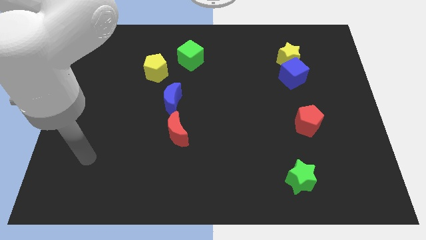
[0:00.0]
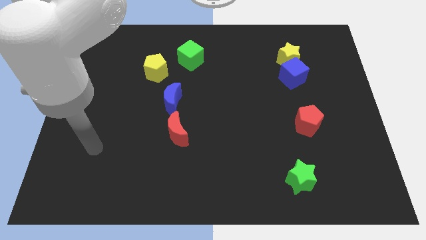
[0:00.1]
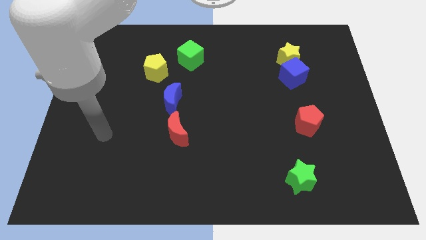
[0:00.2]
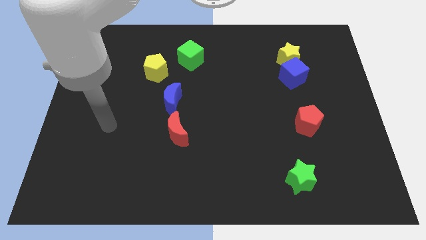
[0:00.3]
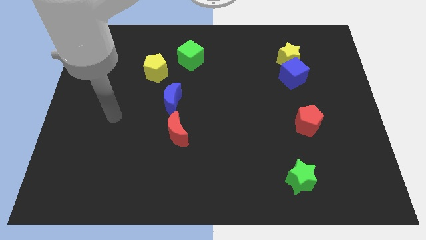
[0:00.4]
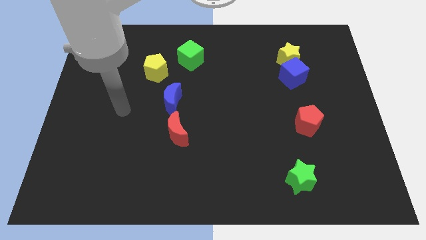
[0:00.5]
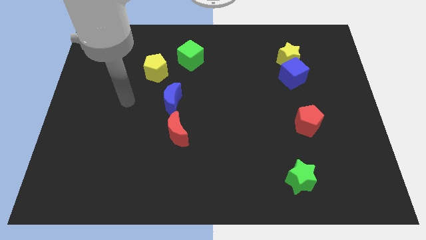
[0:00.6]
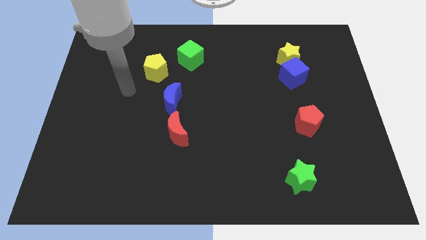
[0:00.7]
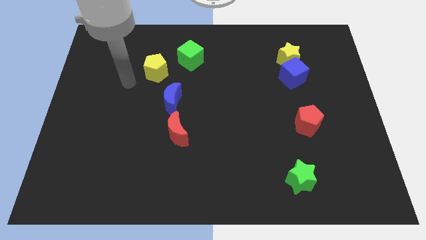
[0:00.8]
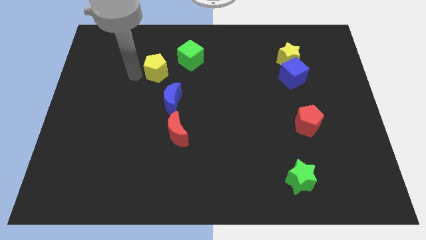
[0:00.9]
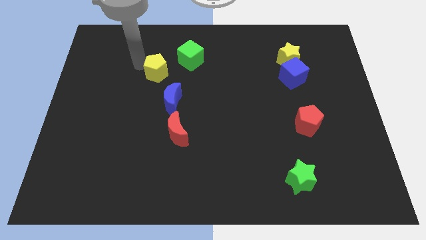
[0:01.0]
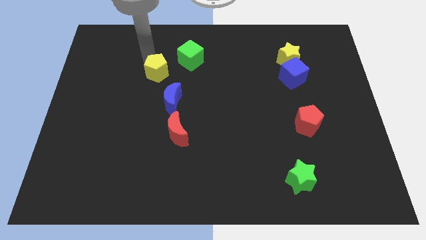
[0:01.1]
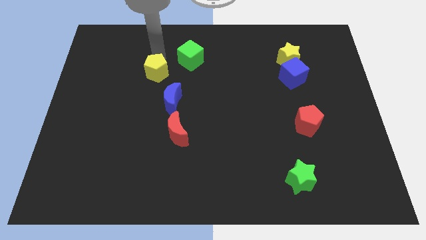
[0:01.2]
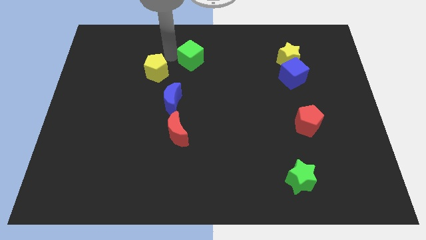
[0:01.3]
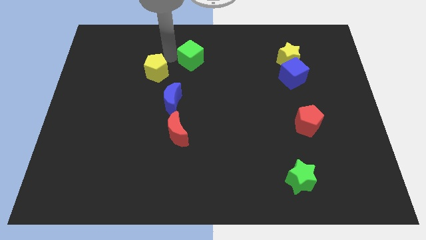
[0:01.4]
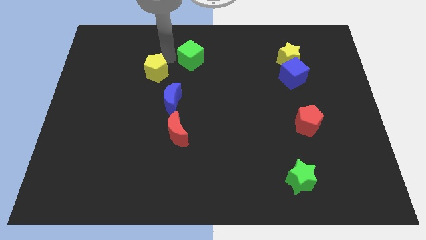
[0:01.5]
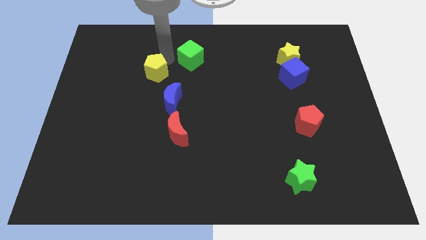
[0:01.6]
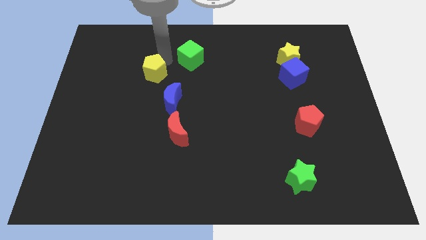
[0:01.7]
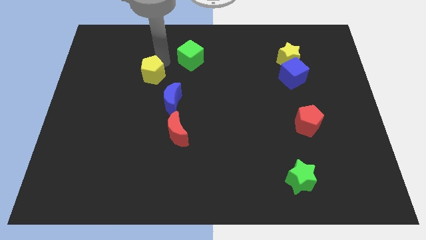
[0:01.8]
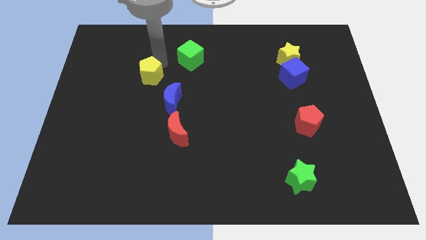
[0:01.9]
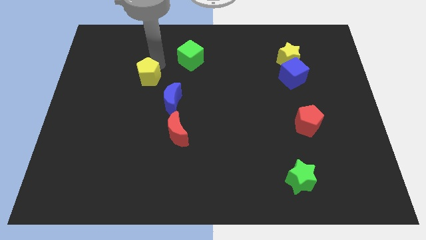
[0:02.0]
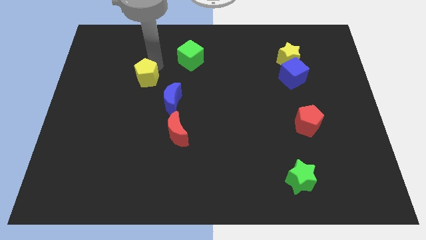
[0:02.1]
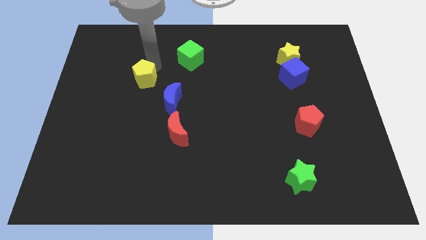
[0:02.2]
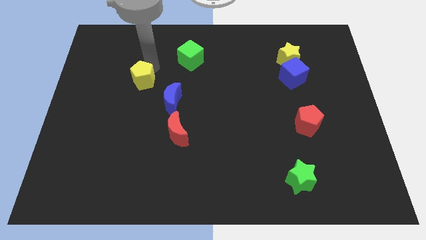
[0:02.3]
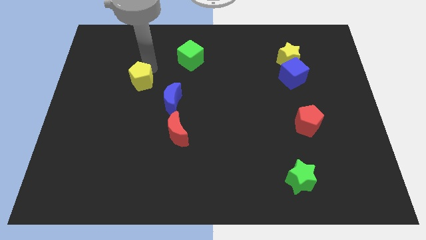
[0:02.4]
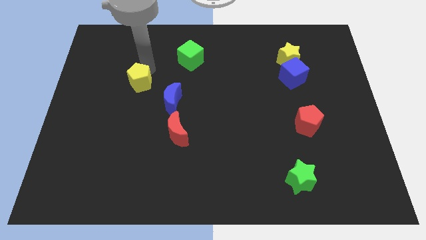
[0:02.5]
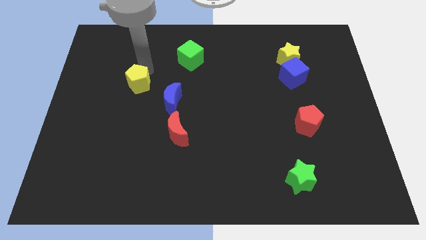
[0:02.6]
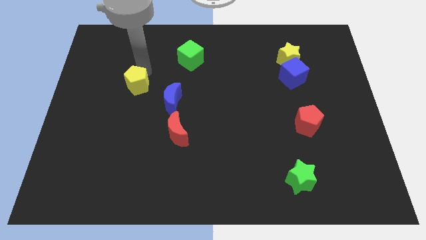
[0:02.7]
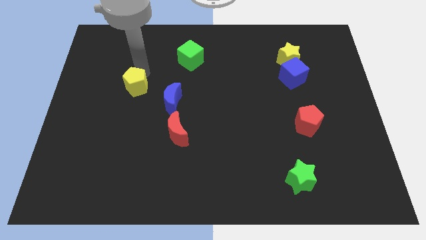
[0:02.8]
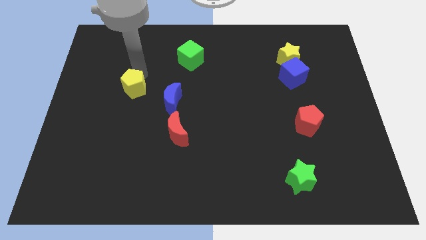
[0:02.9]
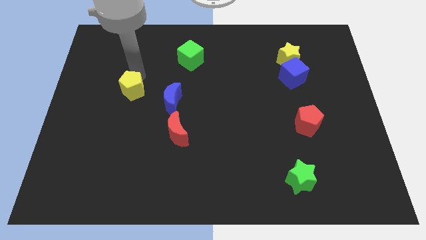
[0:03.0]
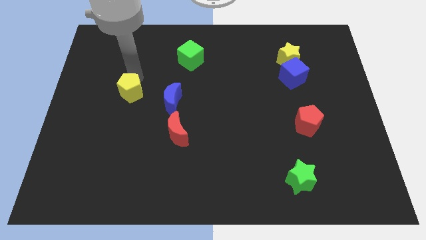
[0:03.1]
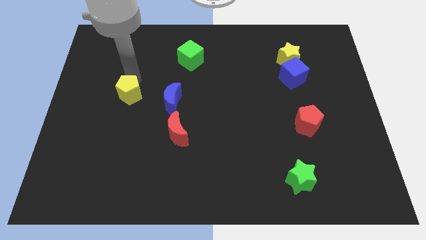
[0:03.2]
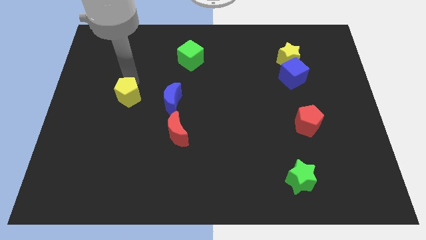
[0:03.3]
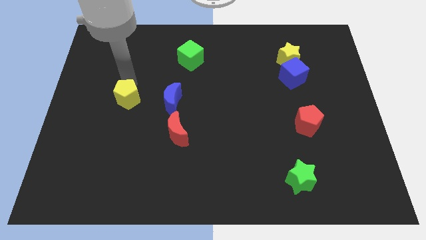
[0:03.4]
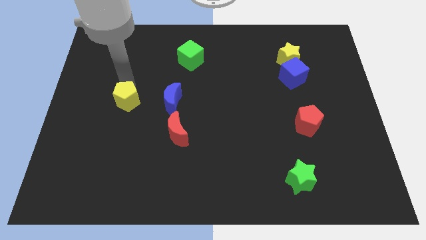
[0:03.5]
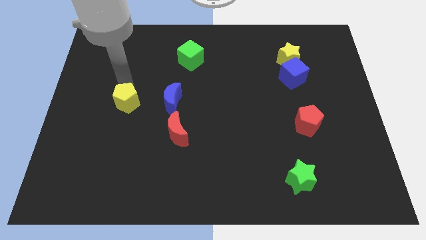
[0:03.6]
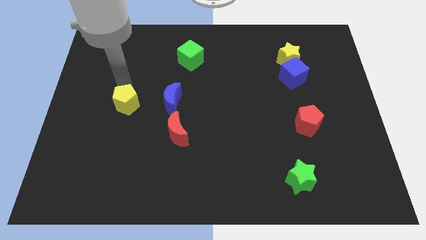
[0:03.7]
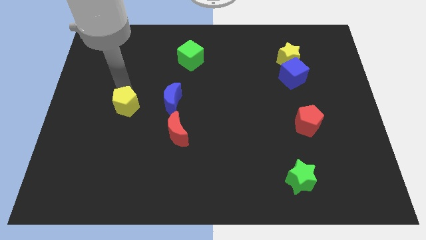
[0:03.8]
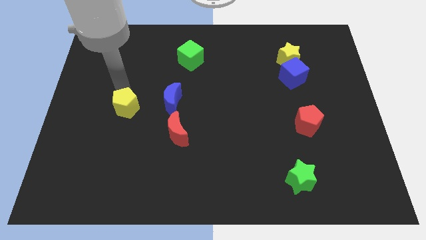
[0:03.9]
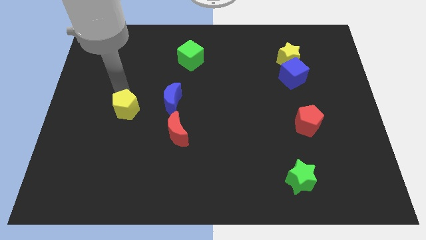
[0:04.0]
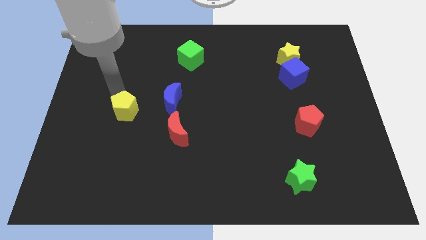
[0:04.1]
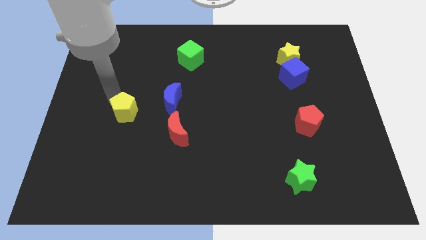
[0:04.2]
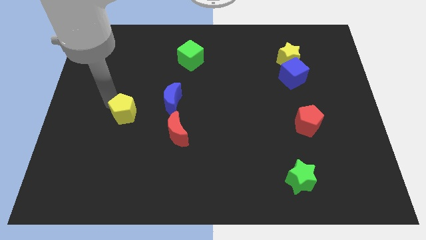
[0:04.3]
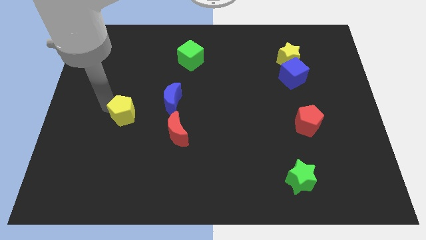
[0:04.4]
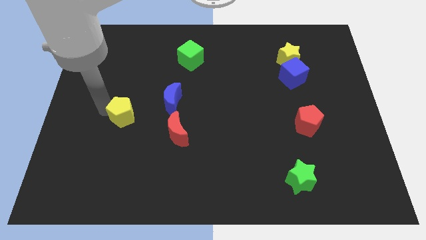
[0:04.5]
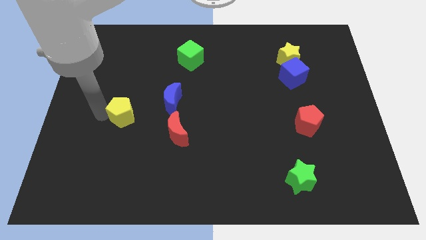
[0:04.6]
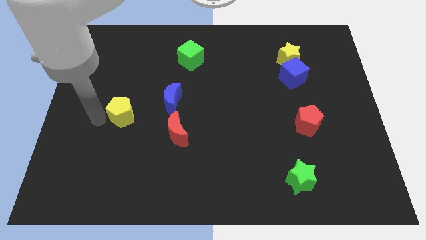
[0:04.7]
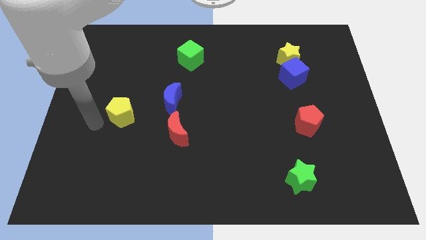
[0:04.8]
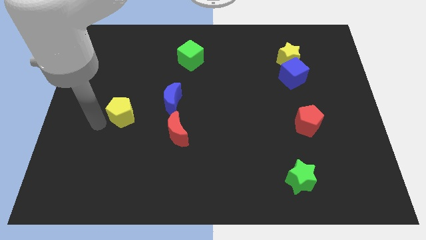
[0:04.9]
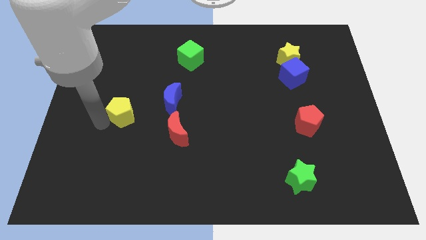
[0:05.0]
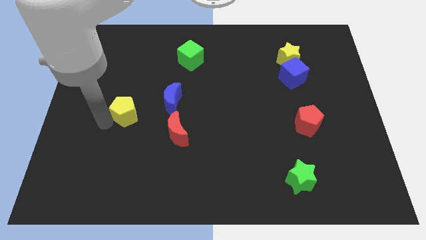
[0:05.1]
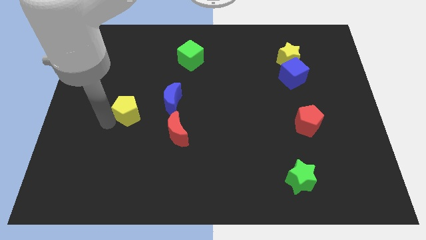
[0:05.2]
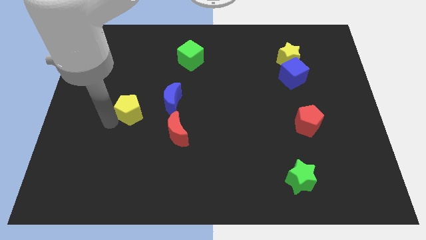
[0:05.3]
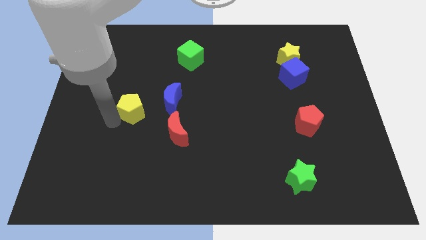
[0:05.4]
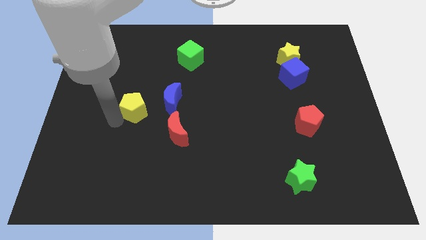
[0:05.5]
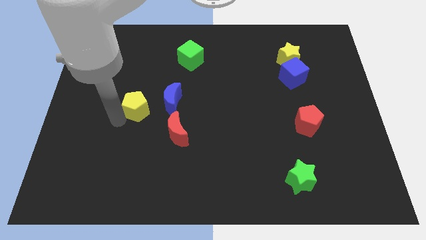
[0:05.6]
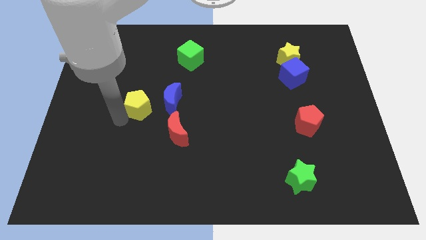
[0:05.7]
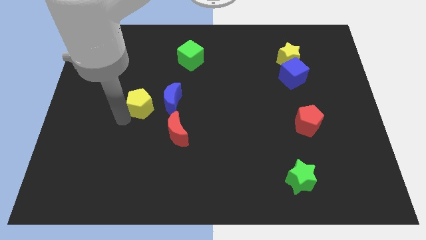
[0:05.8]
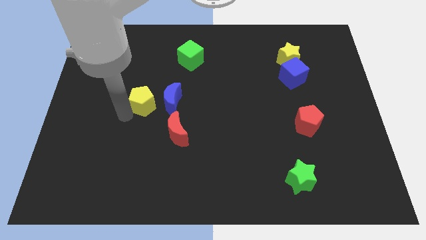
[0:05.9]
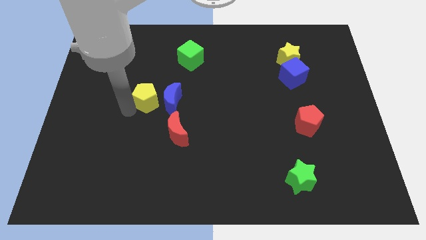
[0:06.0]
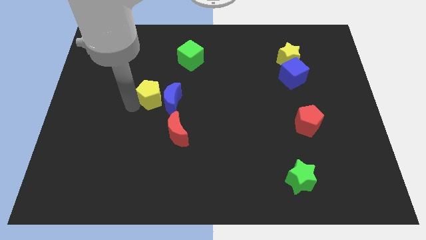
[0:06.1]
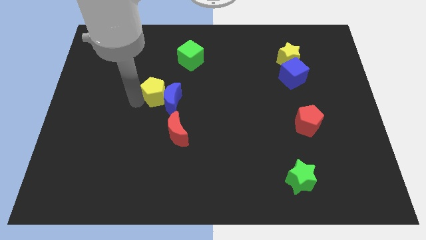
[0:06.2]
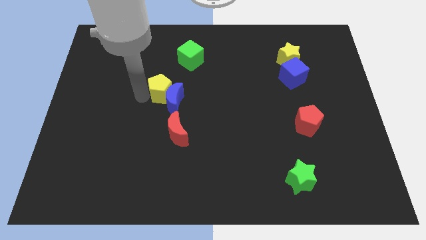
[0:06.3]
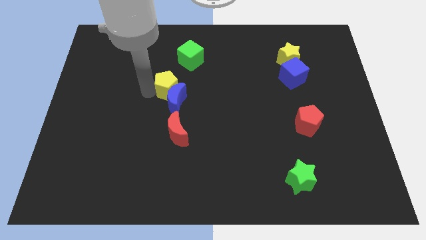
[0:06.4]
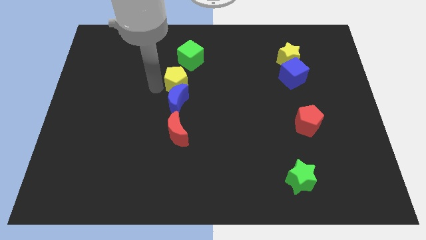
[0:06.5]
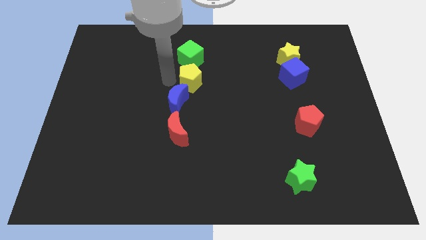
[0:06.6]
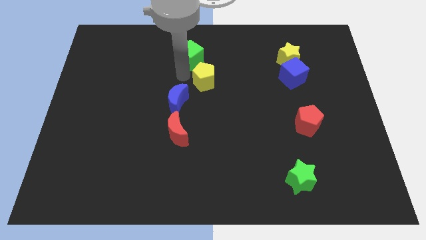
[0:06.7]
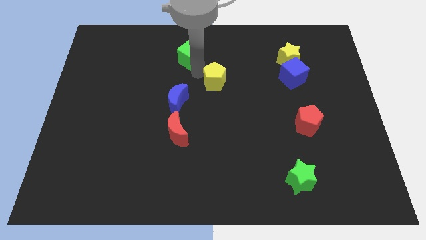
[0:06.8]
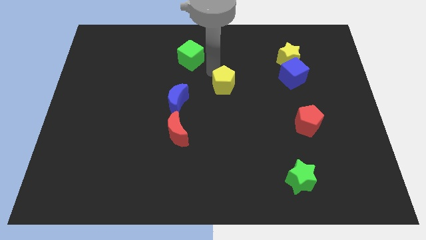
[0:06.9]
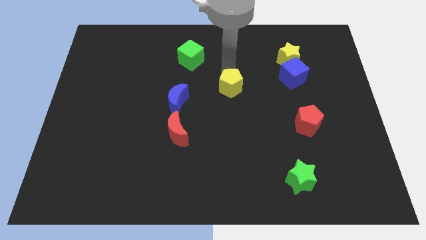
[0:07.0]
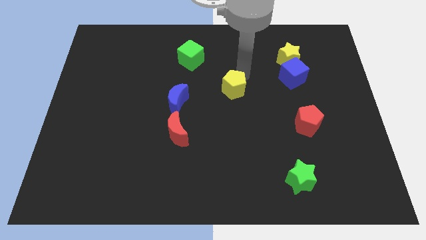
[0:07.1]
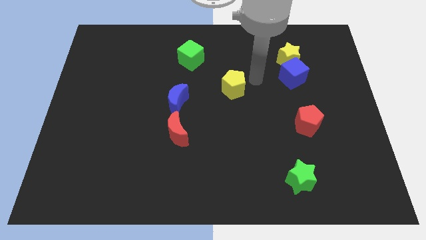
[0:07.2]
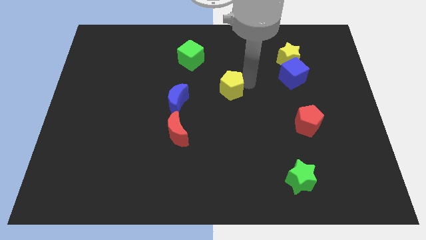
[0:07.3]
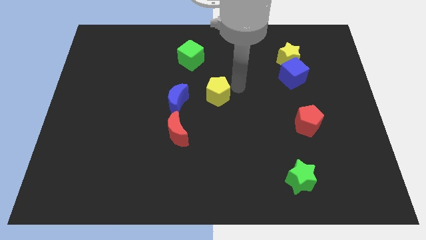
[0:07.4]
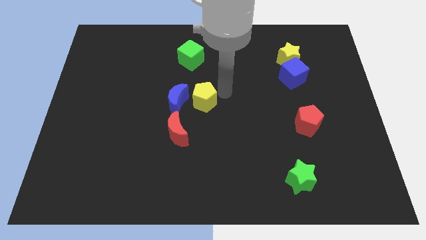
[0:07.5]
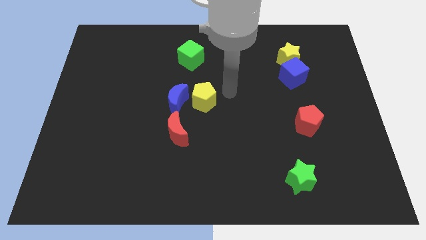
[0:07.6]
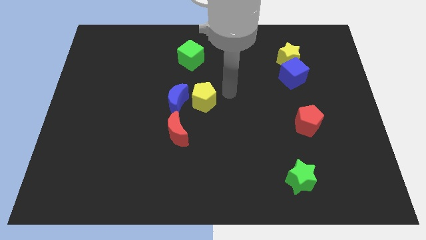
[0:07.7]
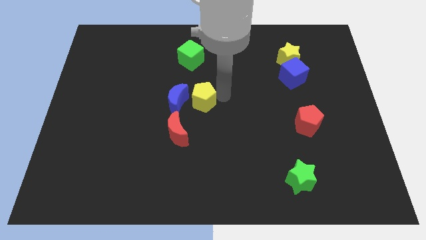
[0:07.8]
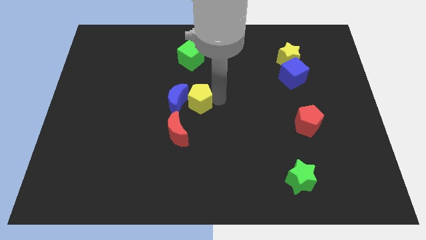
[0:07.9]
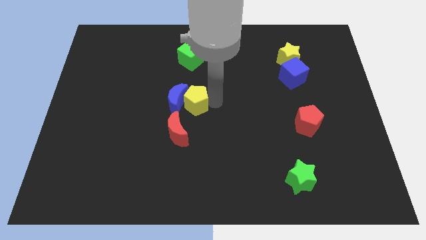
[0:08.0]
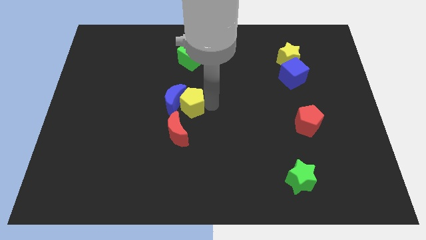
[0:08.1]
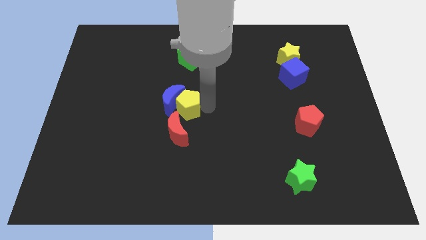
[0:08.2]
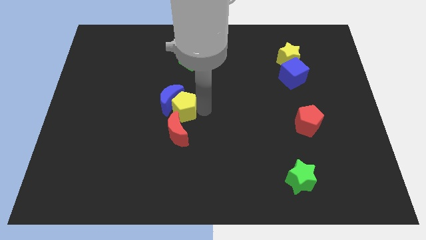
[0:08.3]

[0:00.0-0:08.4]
push the yellow pentagon to the bottom of the blue moon
